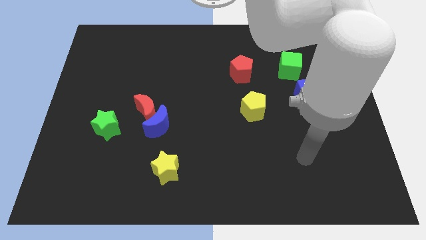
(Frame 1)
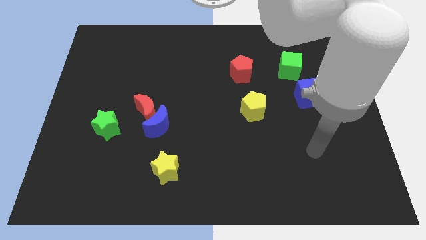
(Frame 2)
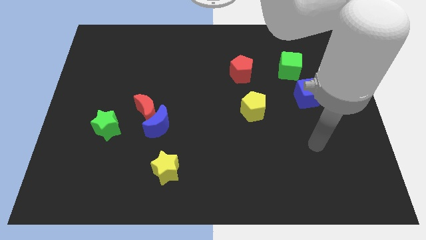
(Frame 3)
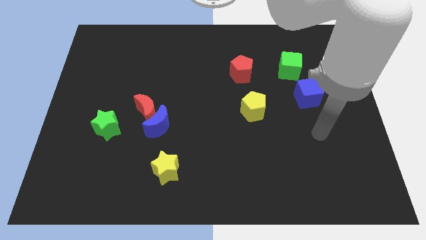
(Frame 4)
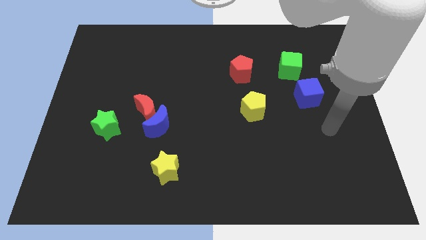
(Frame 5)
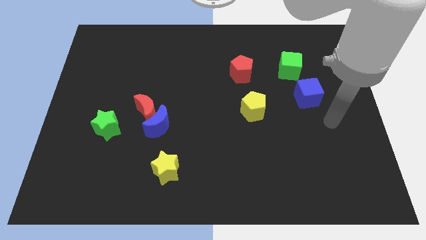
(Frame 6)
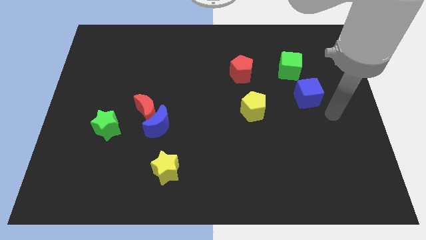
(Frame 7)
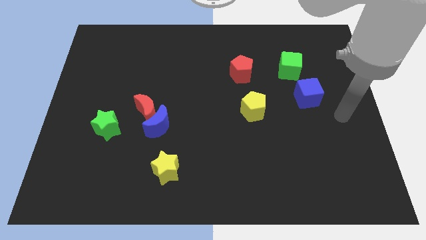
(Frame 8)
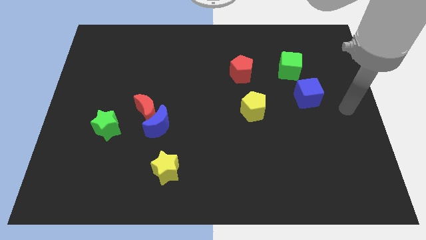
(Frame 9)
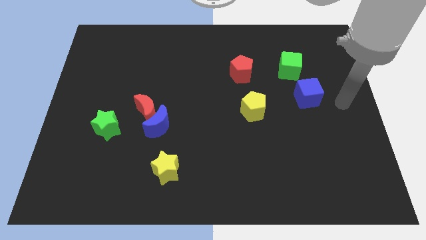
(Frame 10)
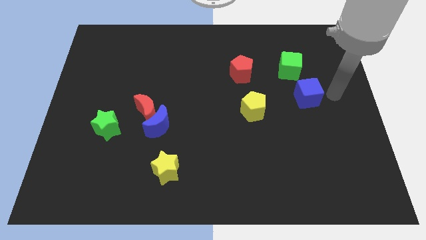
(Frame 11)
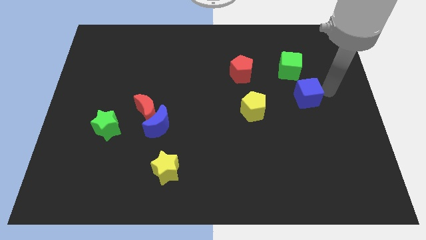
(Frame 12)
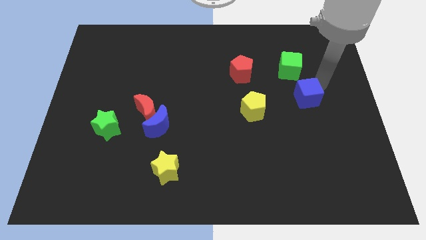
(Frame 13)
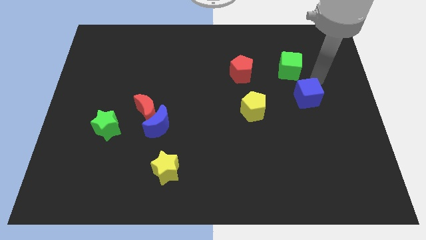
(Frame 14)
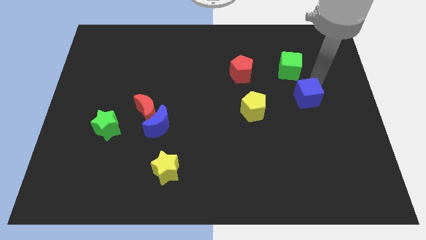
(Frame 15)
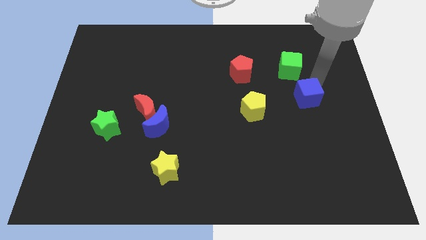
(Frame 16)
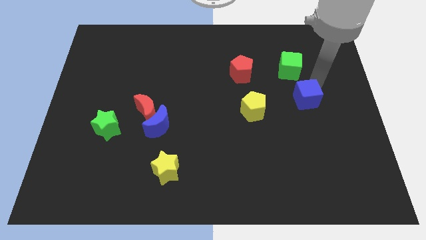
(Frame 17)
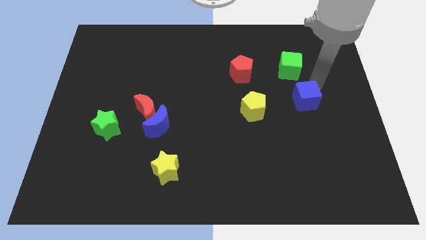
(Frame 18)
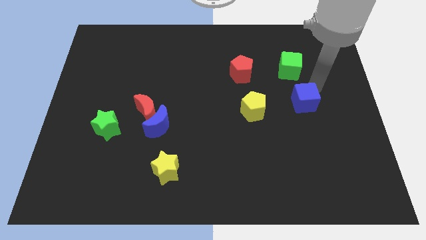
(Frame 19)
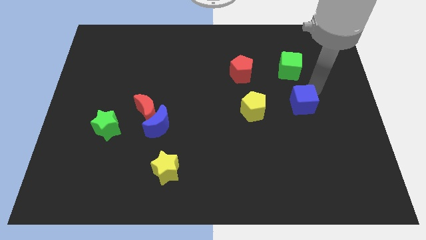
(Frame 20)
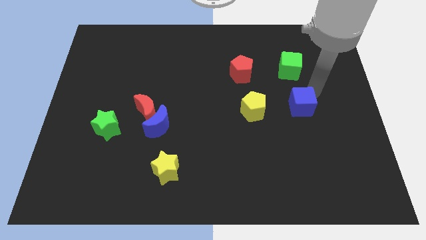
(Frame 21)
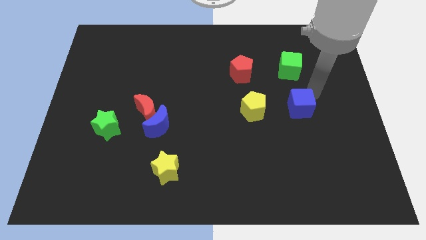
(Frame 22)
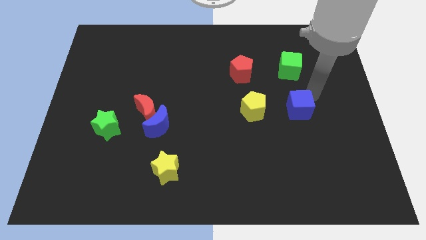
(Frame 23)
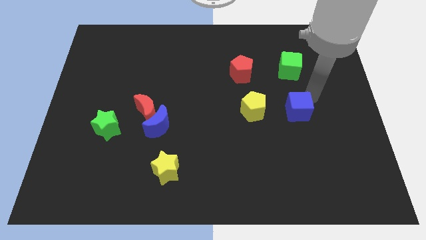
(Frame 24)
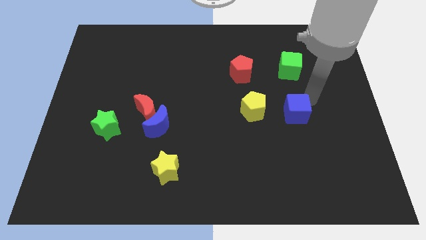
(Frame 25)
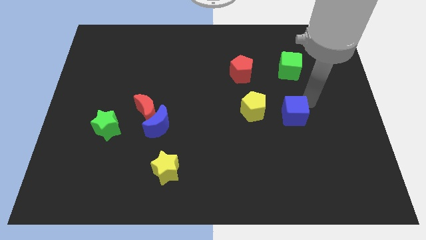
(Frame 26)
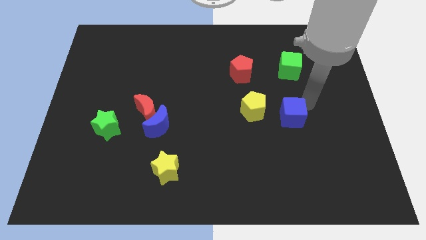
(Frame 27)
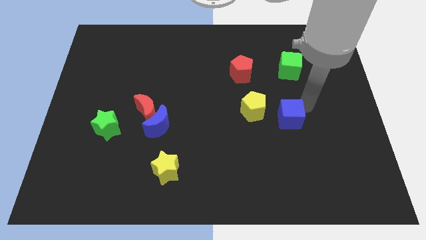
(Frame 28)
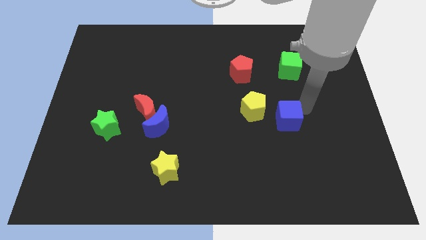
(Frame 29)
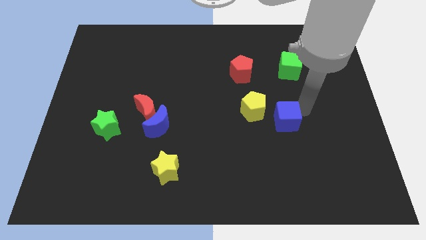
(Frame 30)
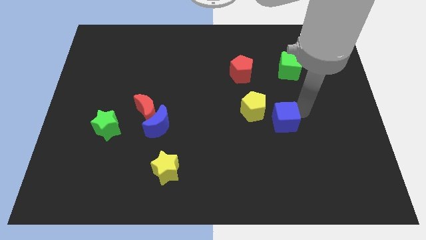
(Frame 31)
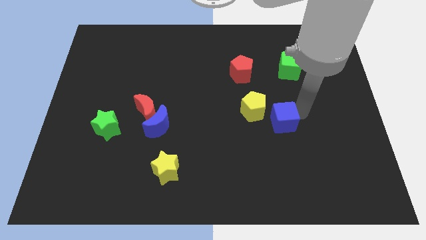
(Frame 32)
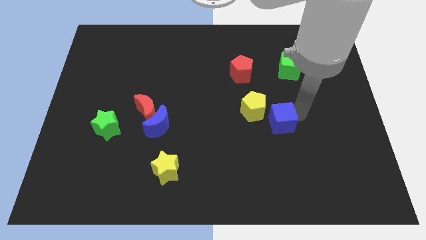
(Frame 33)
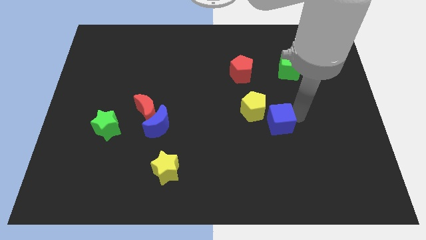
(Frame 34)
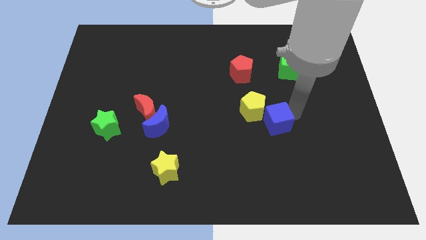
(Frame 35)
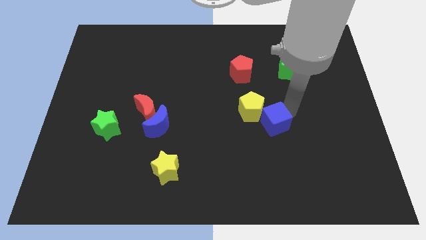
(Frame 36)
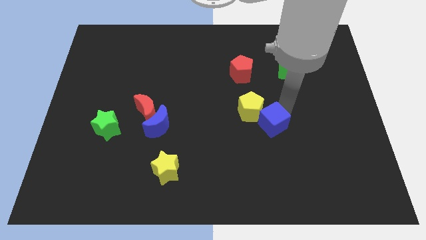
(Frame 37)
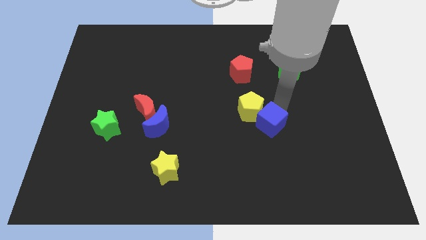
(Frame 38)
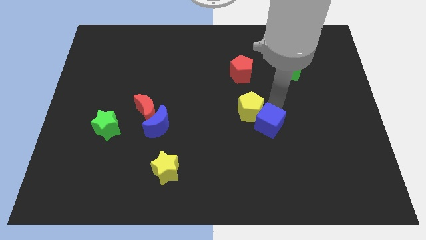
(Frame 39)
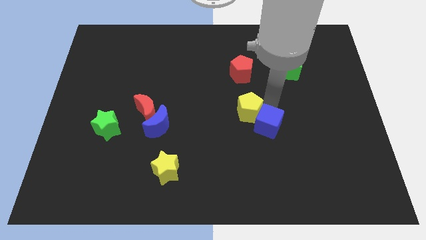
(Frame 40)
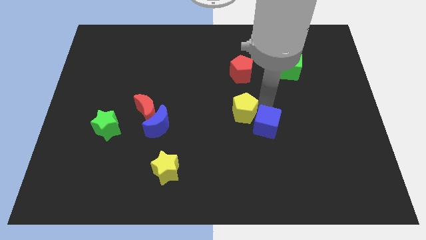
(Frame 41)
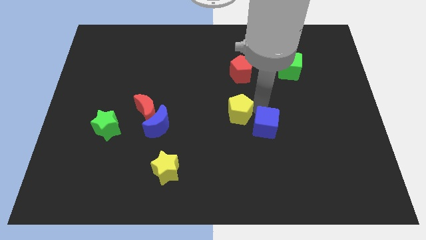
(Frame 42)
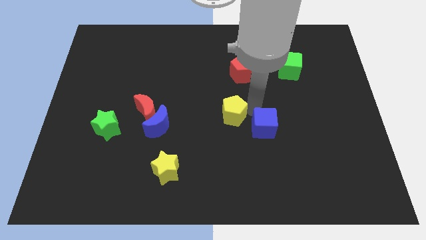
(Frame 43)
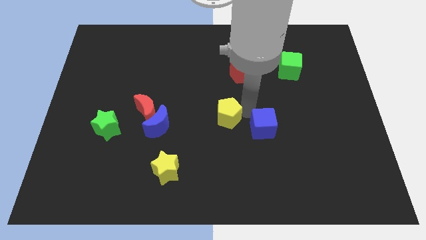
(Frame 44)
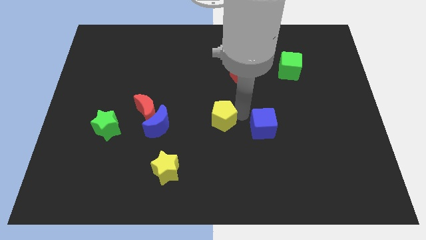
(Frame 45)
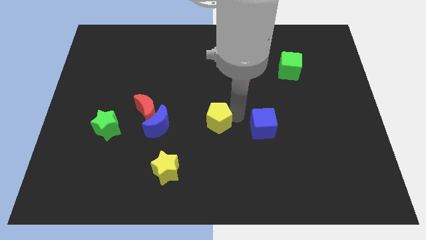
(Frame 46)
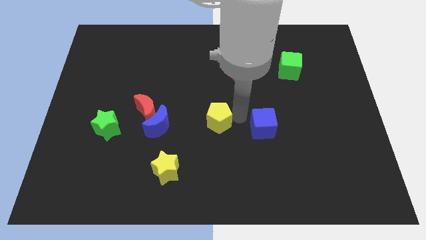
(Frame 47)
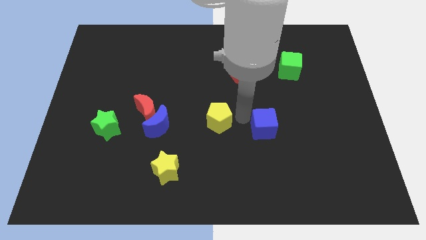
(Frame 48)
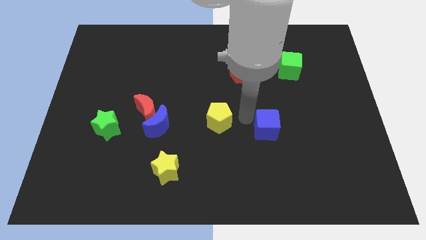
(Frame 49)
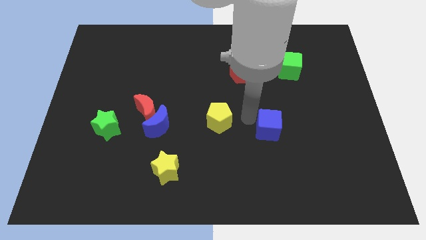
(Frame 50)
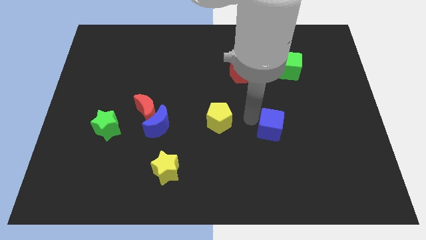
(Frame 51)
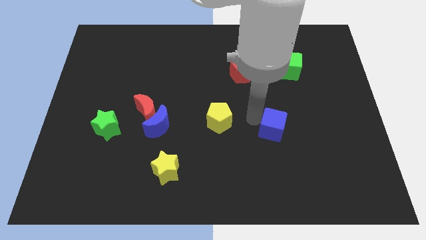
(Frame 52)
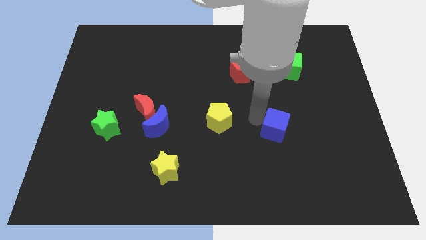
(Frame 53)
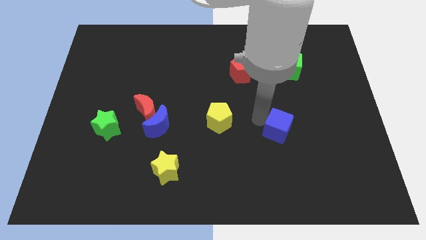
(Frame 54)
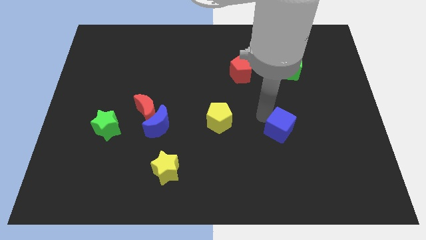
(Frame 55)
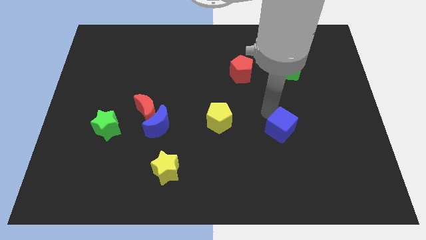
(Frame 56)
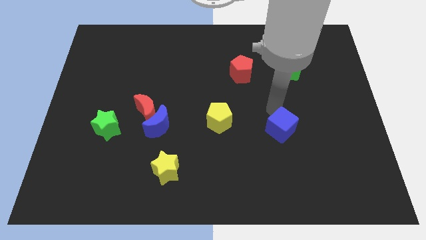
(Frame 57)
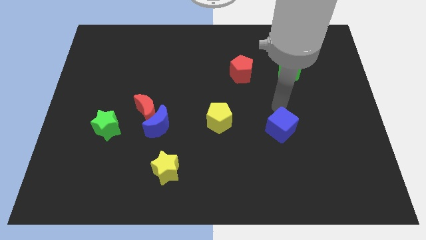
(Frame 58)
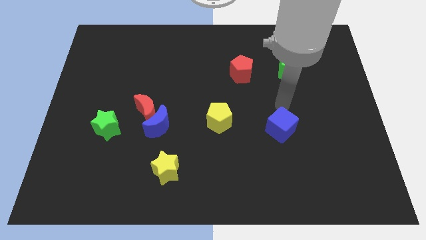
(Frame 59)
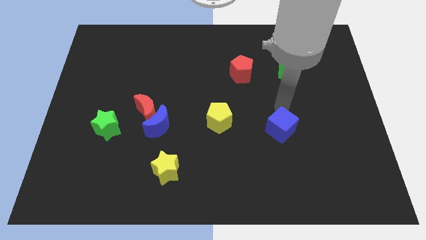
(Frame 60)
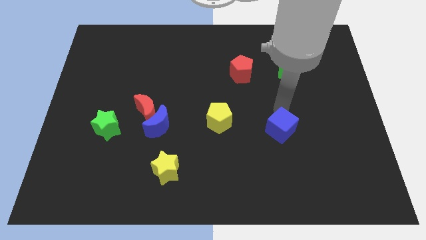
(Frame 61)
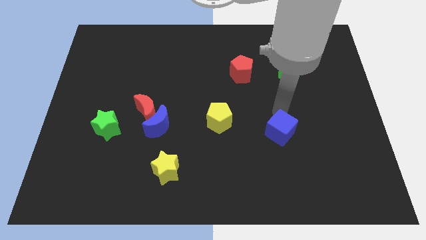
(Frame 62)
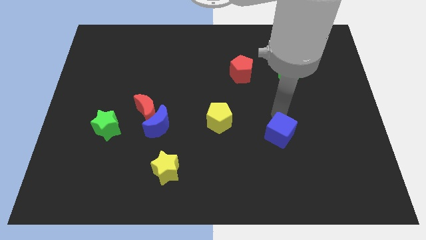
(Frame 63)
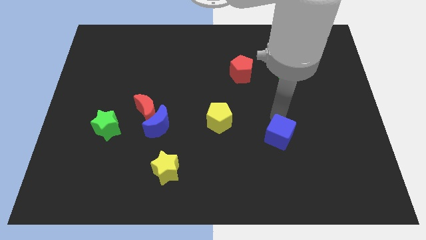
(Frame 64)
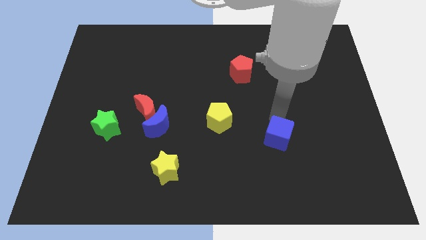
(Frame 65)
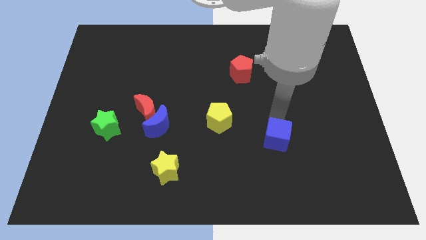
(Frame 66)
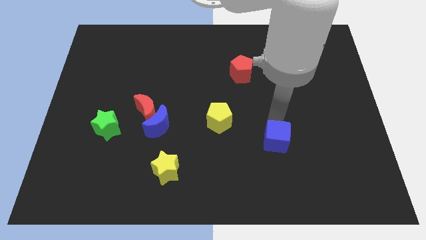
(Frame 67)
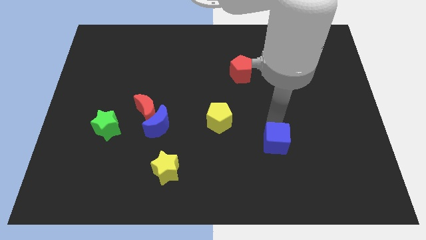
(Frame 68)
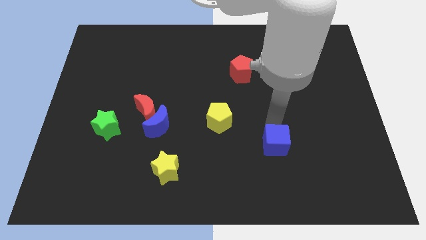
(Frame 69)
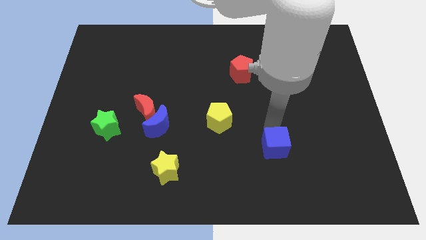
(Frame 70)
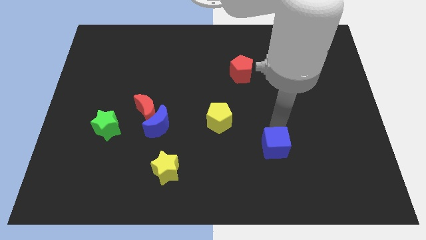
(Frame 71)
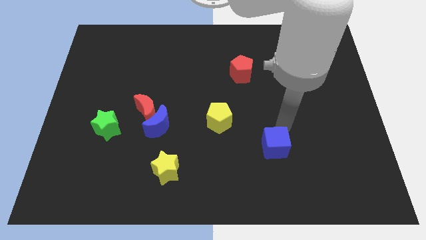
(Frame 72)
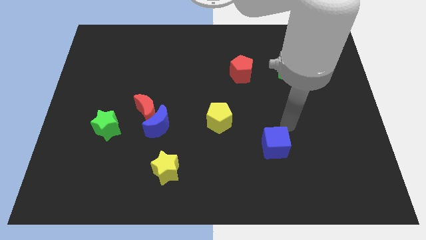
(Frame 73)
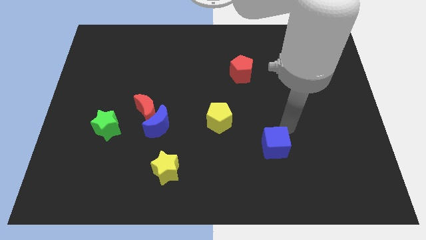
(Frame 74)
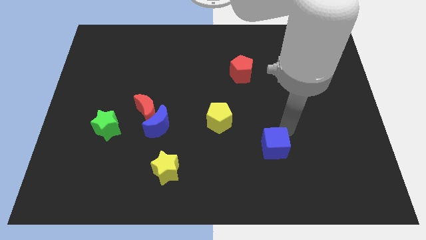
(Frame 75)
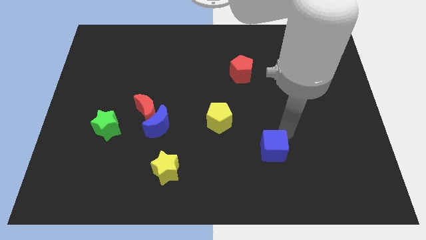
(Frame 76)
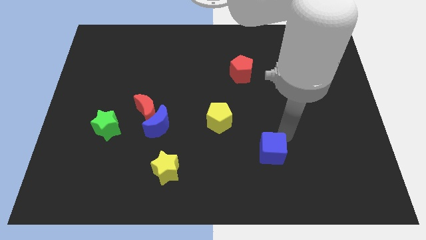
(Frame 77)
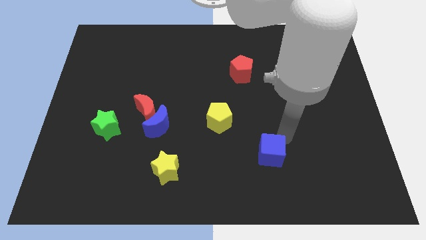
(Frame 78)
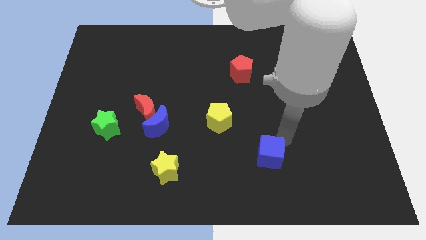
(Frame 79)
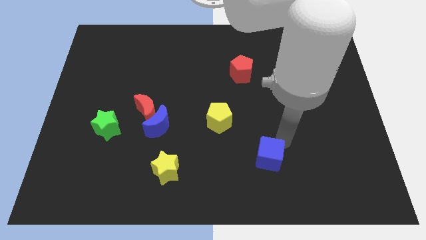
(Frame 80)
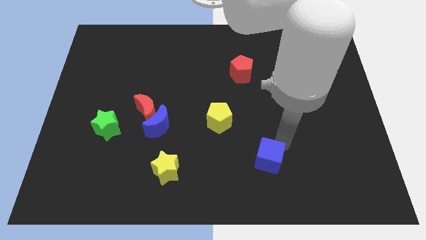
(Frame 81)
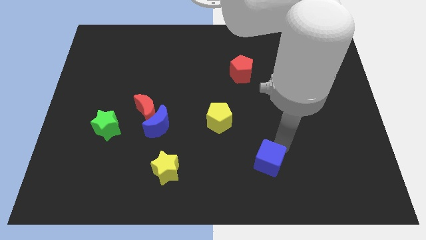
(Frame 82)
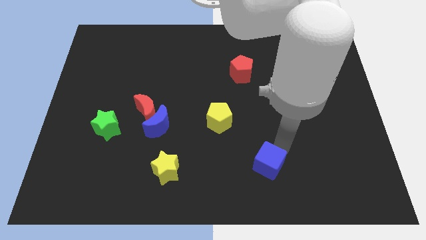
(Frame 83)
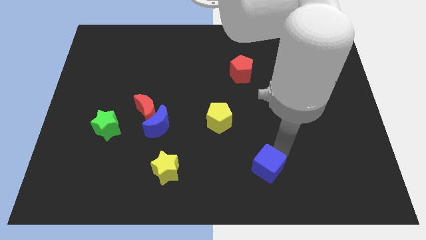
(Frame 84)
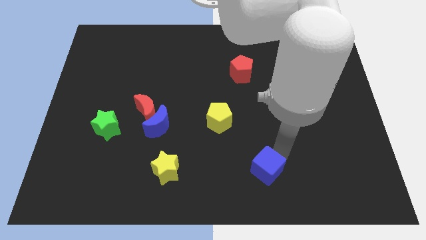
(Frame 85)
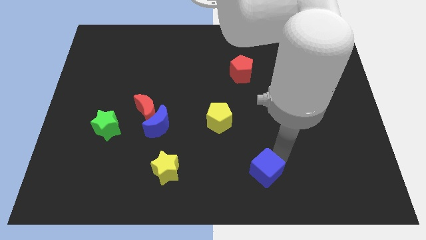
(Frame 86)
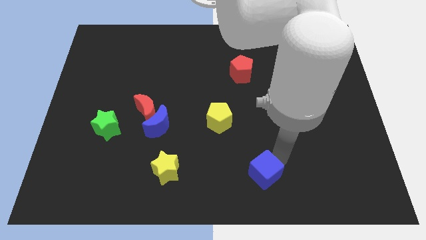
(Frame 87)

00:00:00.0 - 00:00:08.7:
move the blue cube to the bottom
